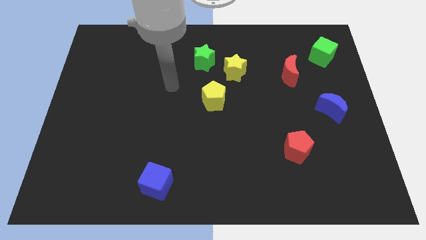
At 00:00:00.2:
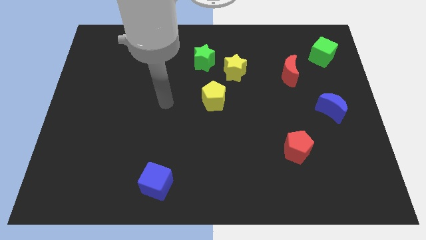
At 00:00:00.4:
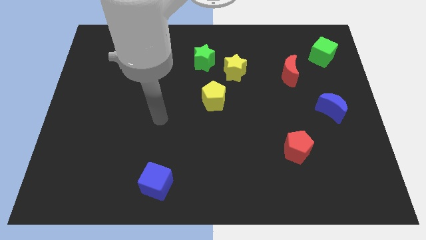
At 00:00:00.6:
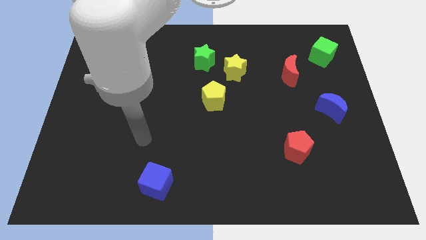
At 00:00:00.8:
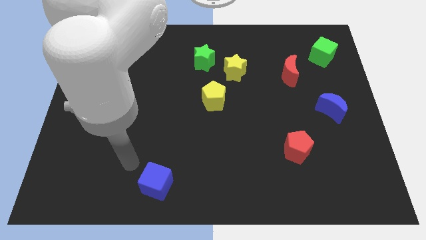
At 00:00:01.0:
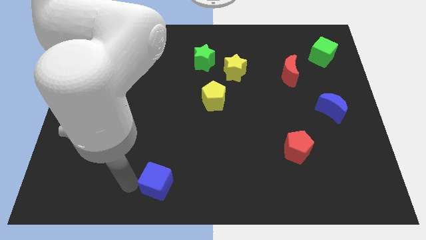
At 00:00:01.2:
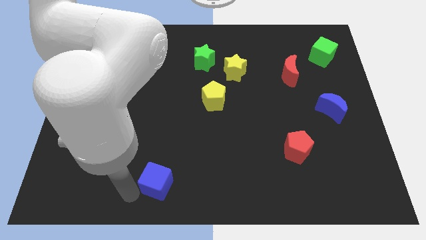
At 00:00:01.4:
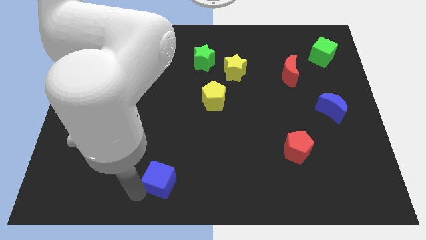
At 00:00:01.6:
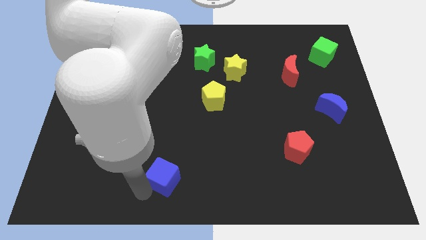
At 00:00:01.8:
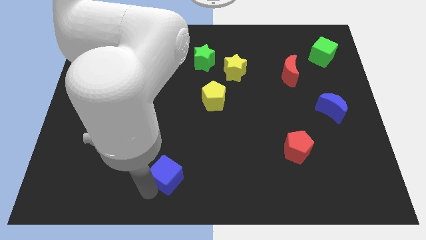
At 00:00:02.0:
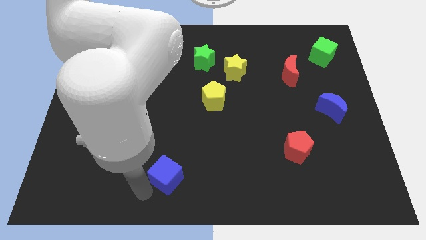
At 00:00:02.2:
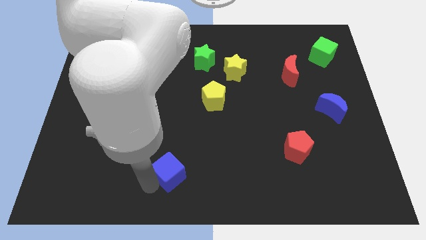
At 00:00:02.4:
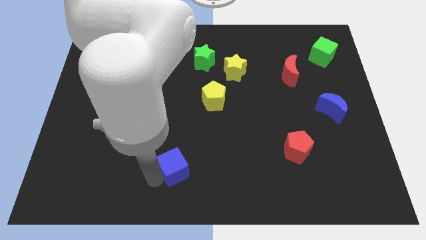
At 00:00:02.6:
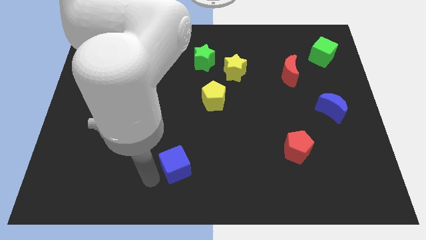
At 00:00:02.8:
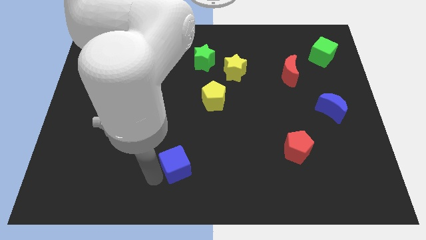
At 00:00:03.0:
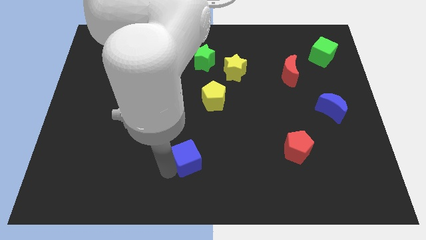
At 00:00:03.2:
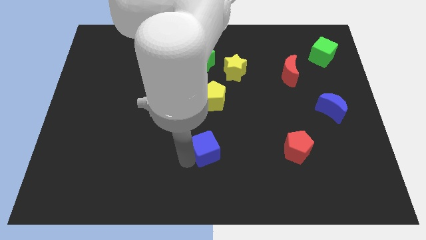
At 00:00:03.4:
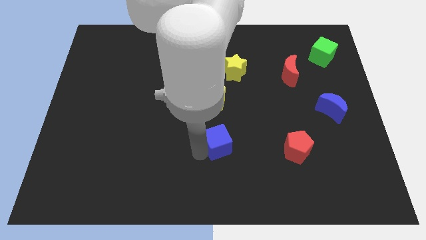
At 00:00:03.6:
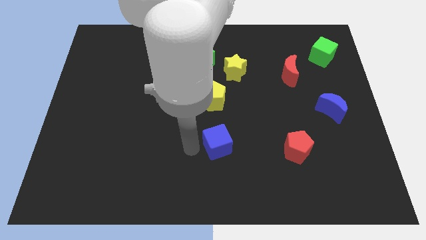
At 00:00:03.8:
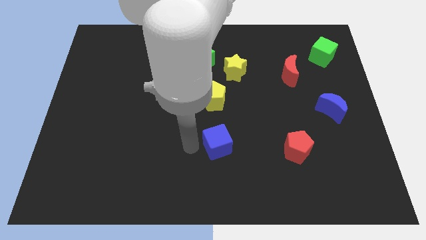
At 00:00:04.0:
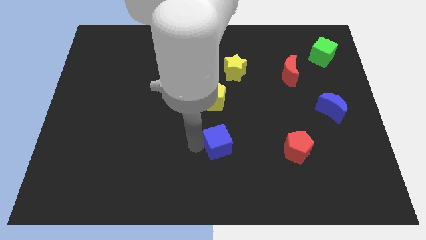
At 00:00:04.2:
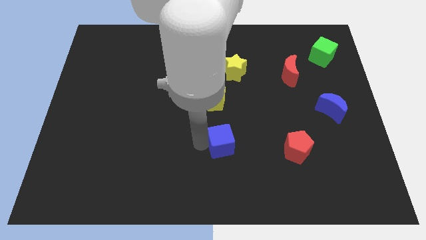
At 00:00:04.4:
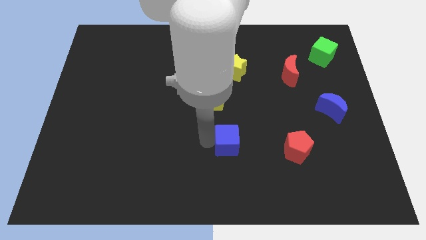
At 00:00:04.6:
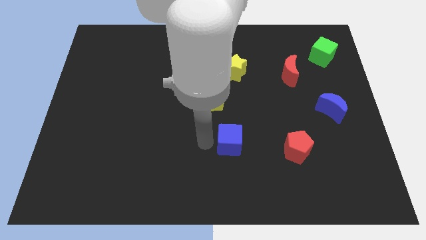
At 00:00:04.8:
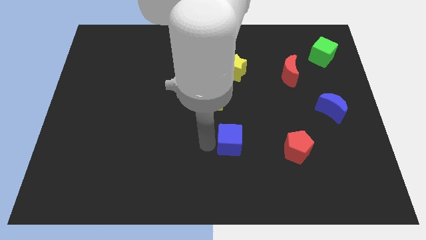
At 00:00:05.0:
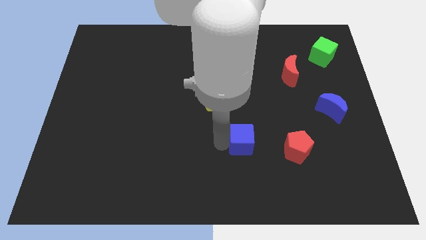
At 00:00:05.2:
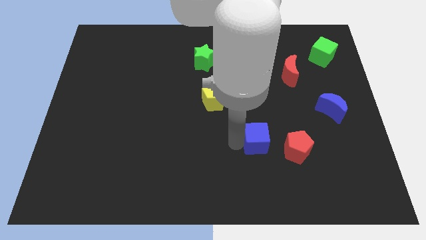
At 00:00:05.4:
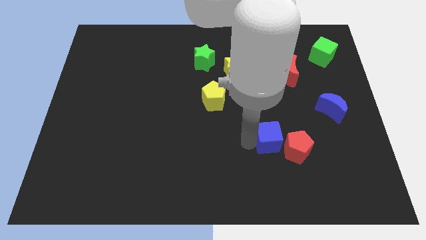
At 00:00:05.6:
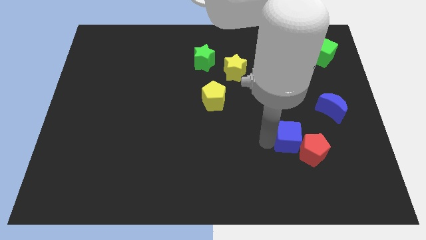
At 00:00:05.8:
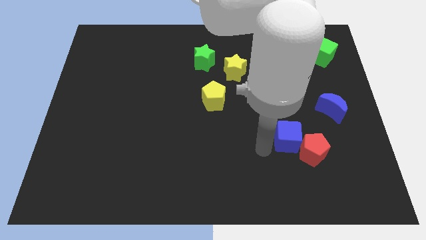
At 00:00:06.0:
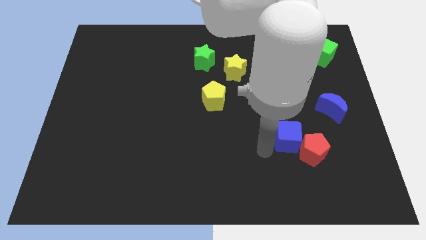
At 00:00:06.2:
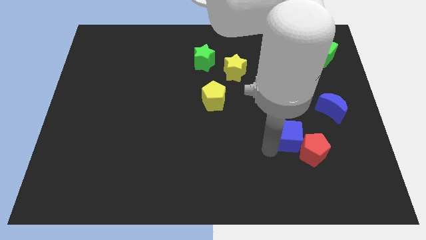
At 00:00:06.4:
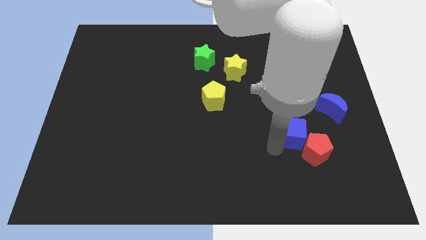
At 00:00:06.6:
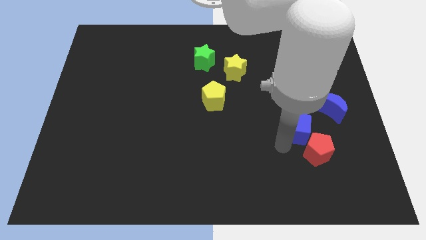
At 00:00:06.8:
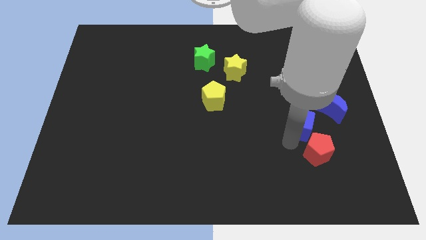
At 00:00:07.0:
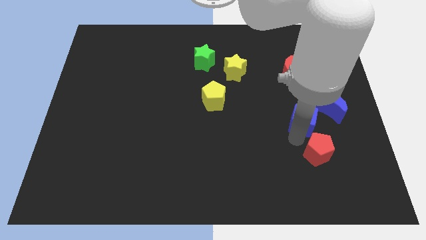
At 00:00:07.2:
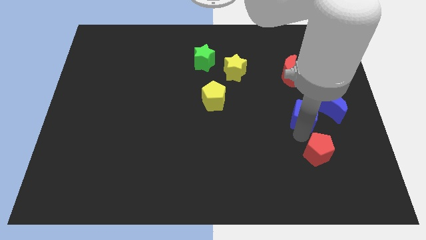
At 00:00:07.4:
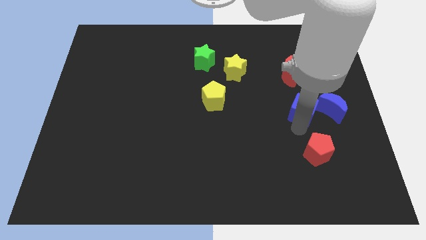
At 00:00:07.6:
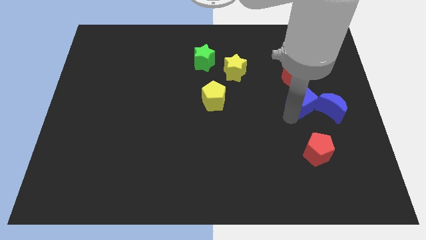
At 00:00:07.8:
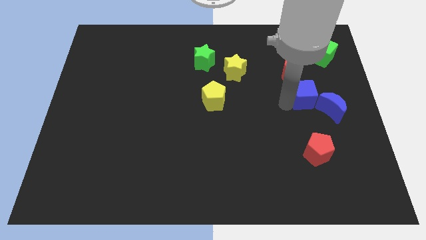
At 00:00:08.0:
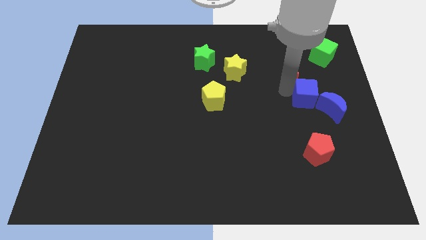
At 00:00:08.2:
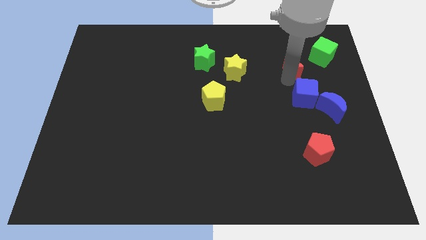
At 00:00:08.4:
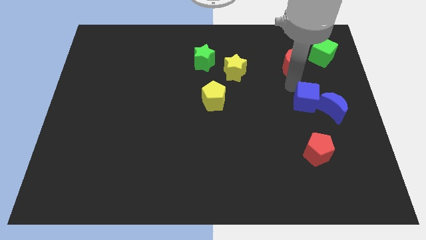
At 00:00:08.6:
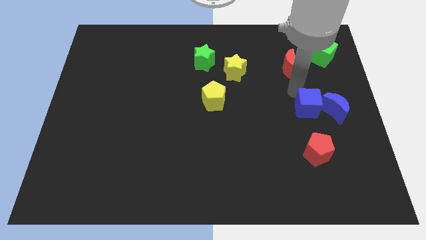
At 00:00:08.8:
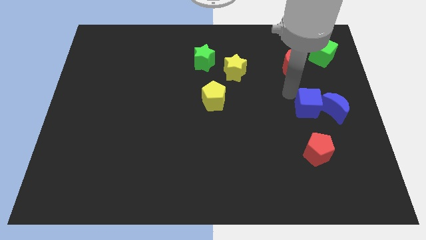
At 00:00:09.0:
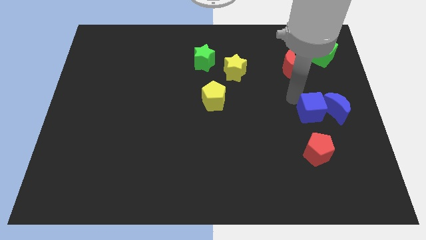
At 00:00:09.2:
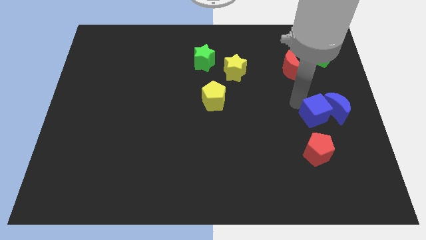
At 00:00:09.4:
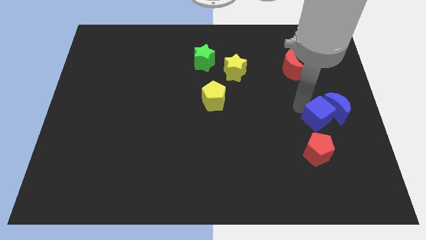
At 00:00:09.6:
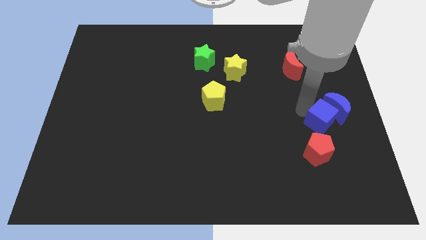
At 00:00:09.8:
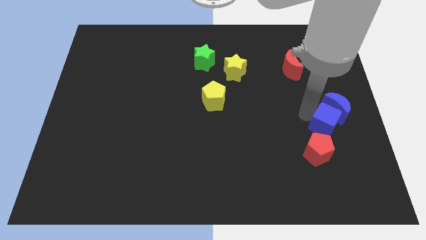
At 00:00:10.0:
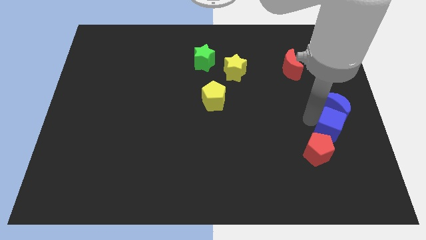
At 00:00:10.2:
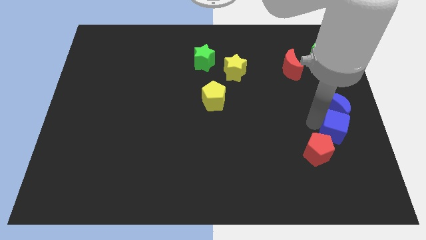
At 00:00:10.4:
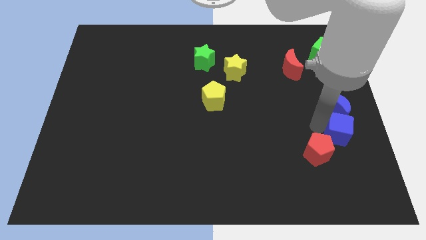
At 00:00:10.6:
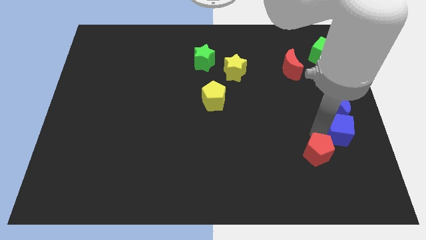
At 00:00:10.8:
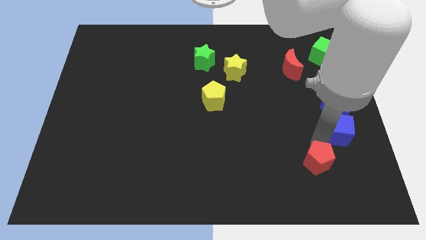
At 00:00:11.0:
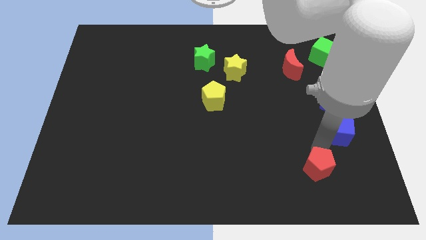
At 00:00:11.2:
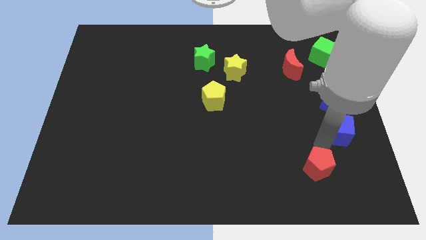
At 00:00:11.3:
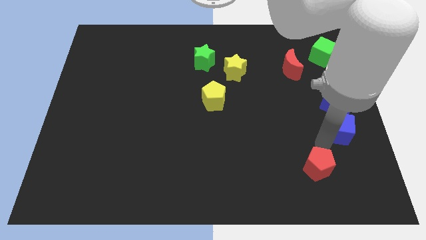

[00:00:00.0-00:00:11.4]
push the blue cube to the center right
